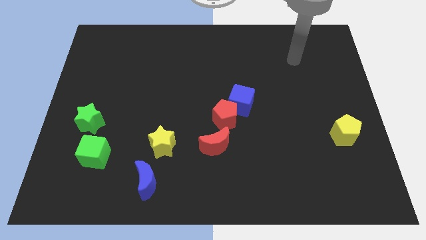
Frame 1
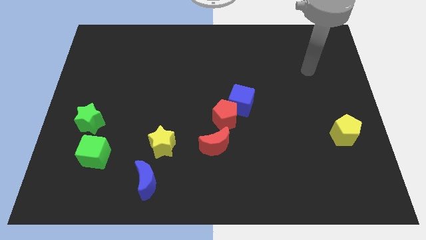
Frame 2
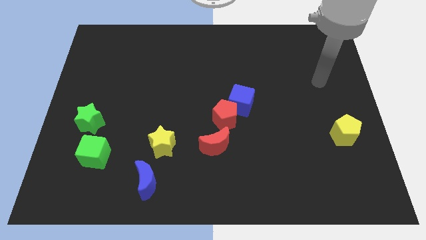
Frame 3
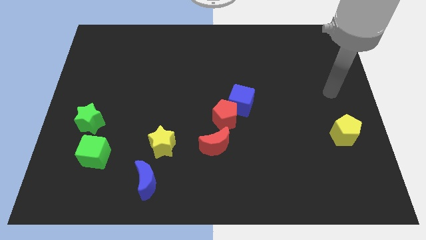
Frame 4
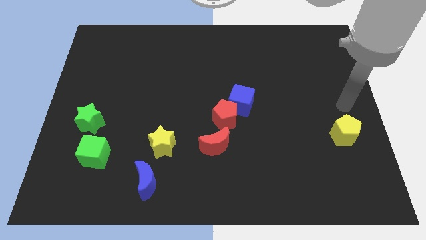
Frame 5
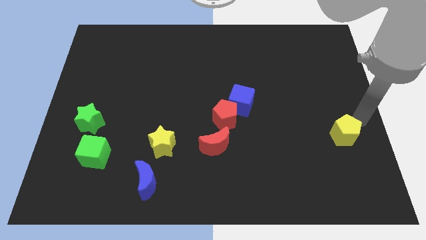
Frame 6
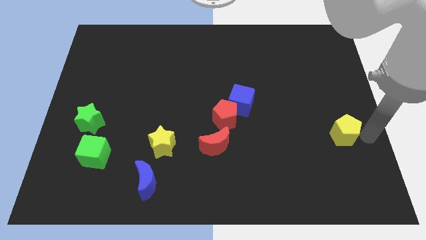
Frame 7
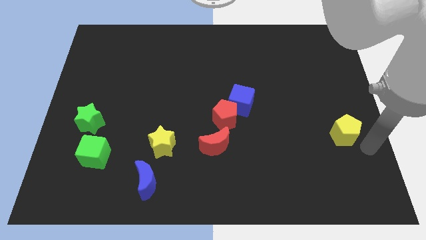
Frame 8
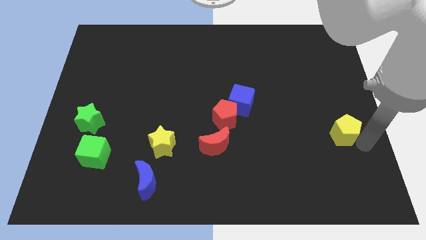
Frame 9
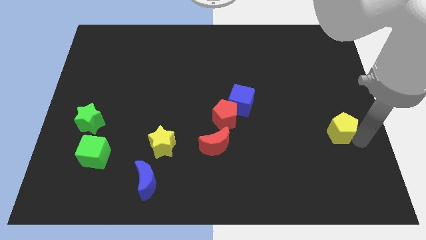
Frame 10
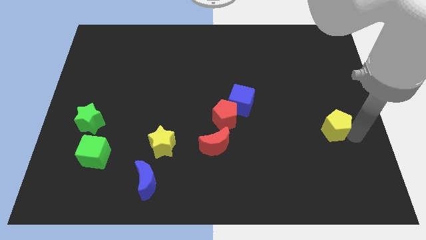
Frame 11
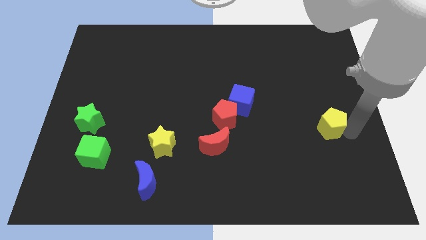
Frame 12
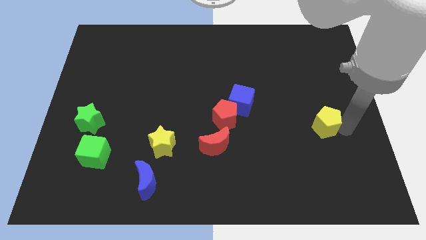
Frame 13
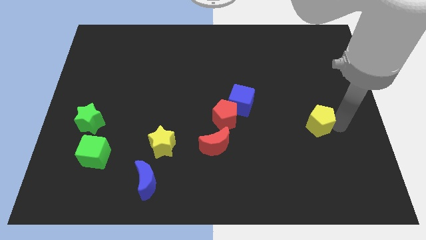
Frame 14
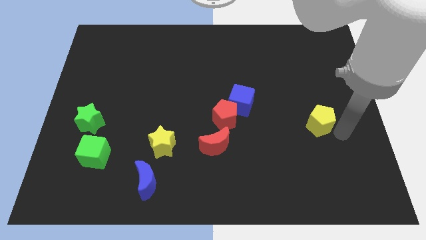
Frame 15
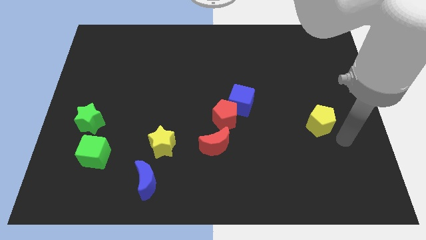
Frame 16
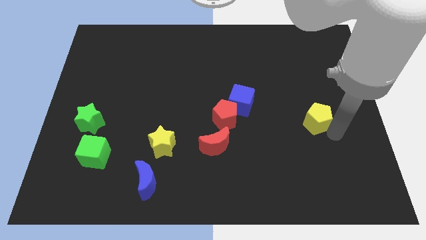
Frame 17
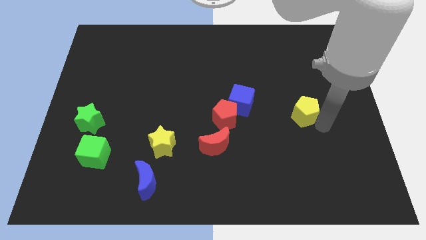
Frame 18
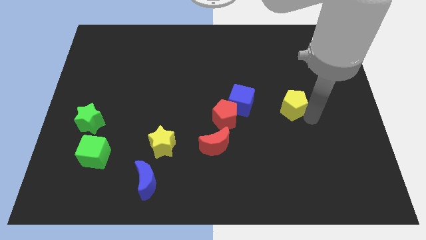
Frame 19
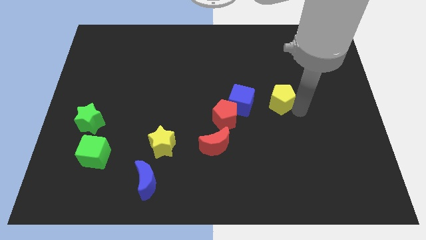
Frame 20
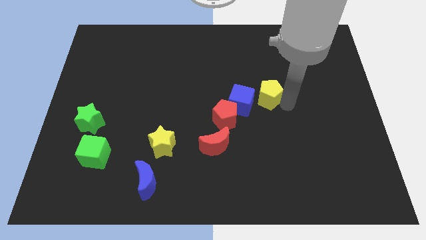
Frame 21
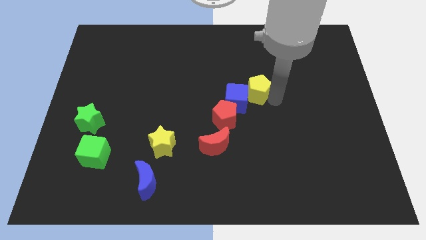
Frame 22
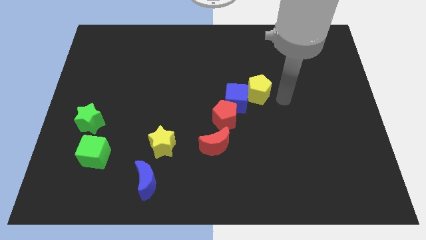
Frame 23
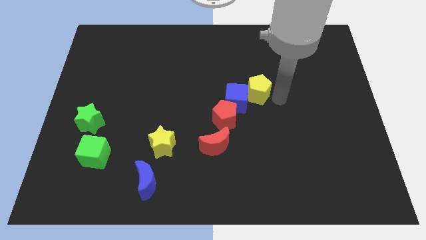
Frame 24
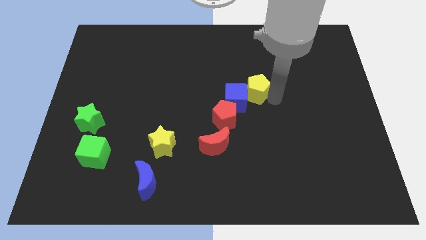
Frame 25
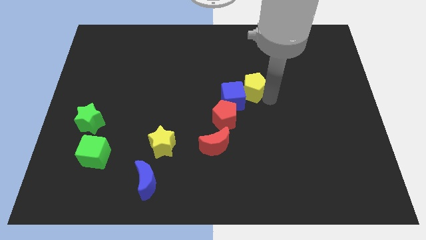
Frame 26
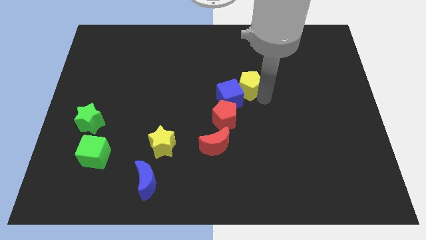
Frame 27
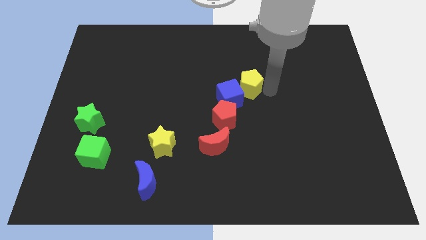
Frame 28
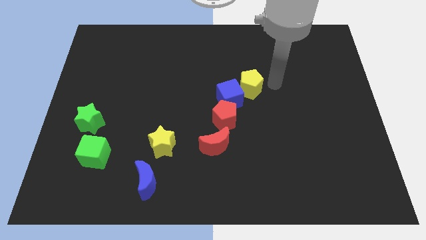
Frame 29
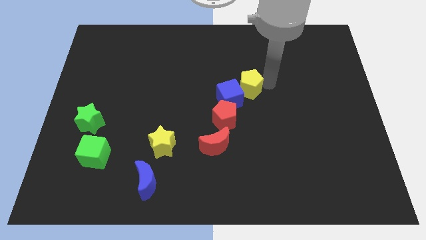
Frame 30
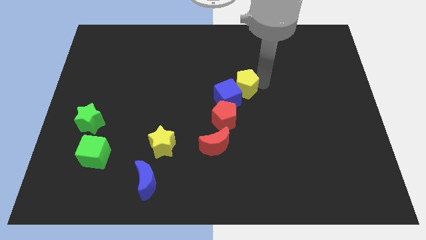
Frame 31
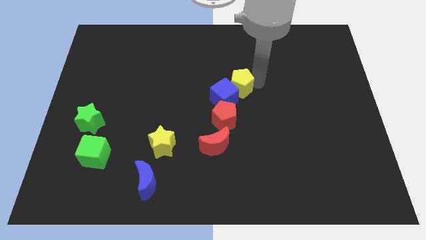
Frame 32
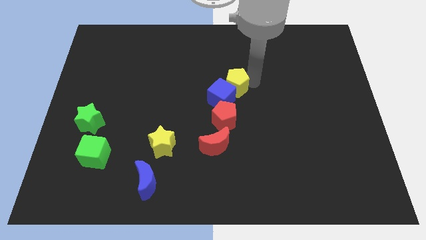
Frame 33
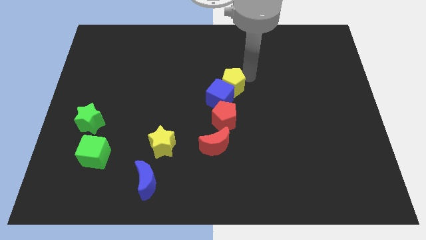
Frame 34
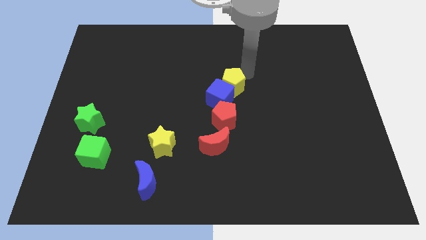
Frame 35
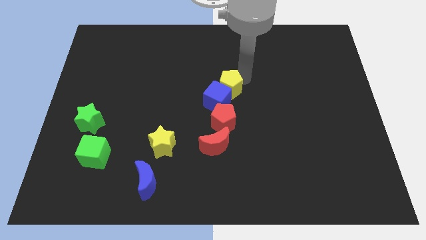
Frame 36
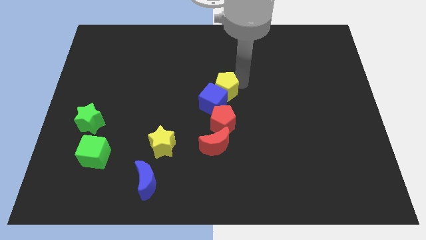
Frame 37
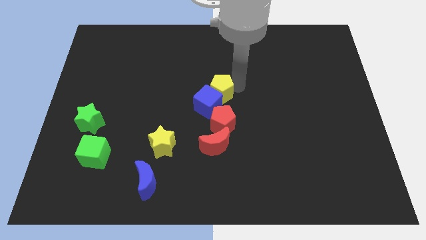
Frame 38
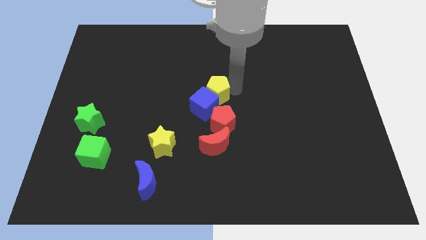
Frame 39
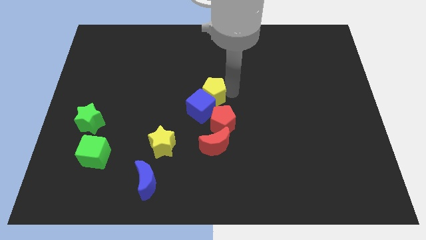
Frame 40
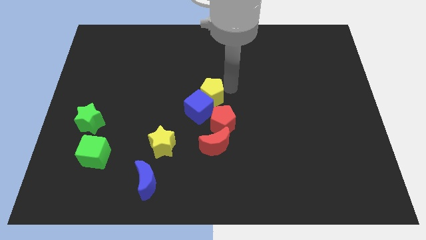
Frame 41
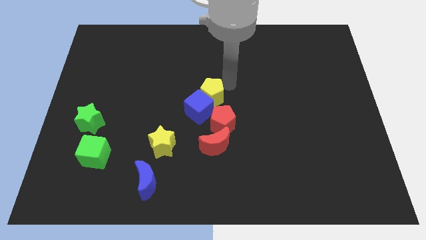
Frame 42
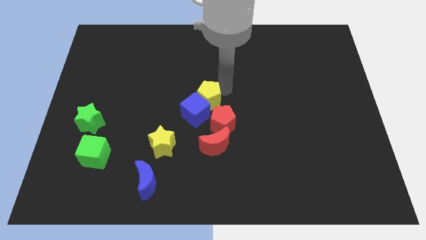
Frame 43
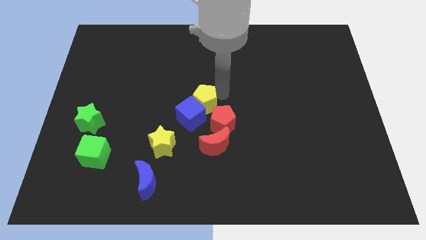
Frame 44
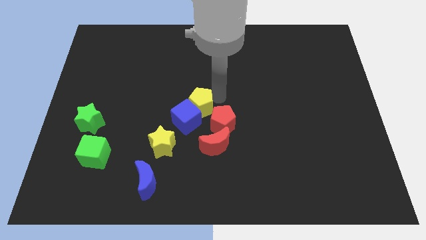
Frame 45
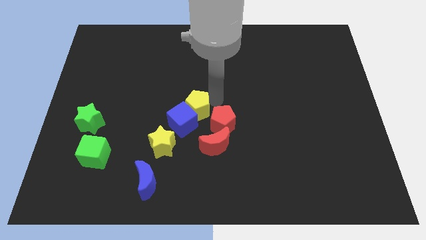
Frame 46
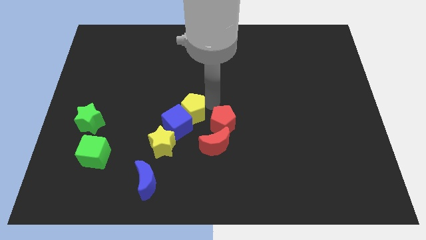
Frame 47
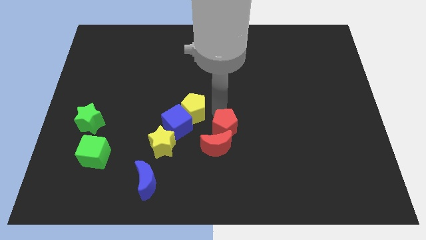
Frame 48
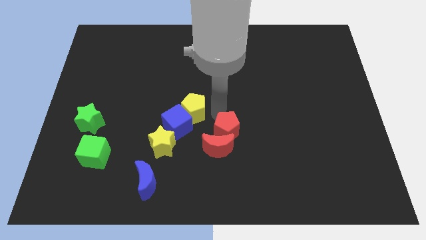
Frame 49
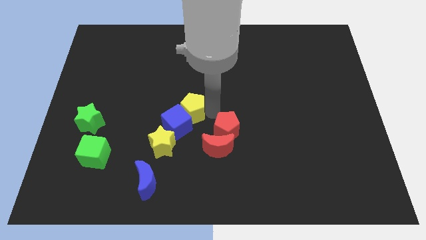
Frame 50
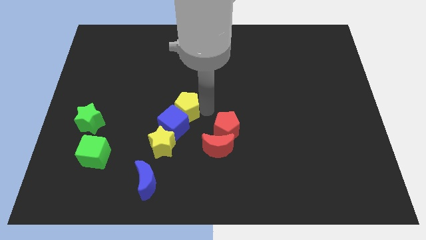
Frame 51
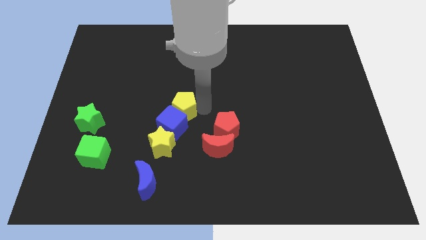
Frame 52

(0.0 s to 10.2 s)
slide the yellow pentagon to the top of the yellow star

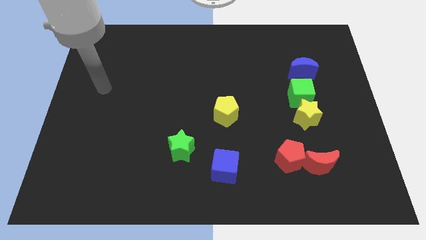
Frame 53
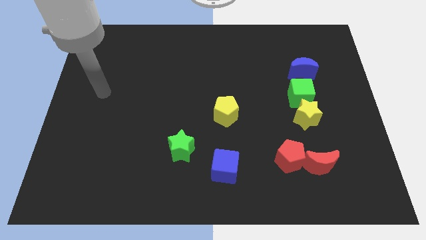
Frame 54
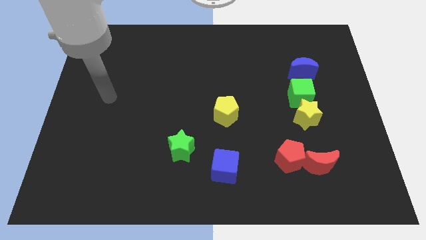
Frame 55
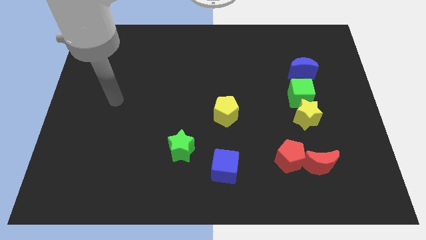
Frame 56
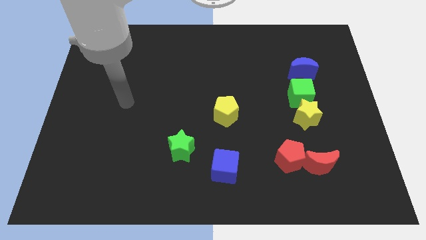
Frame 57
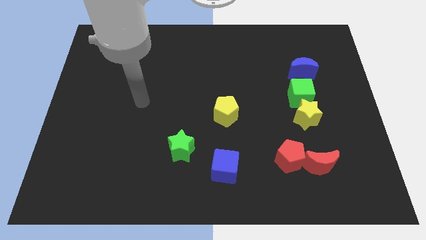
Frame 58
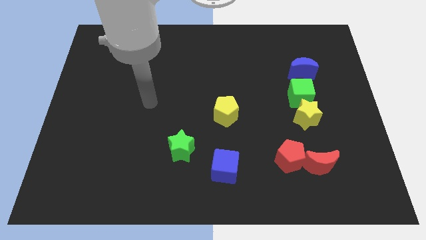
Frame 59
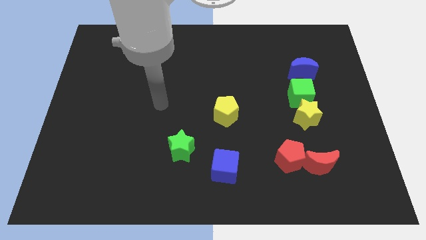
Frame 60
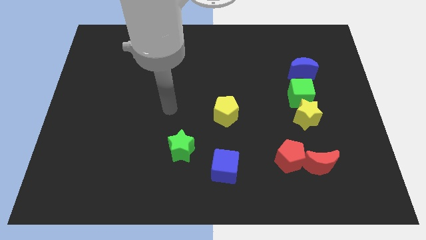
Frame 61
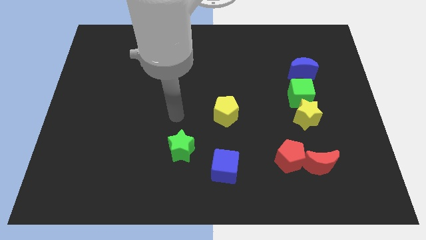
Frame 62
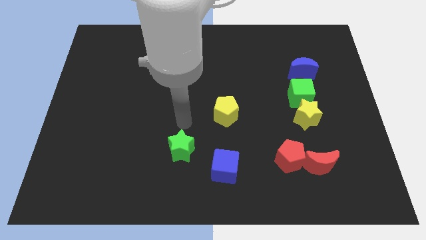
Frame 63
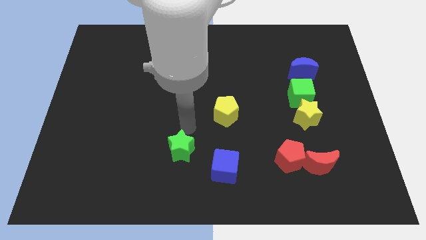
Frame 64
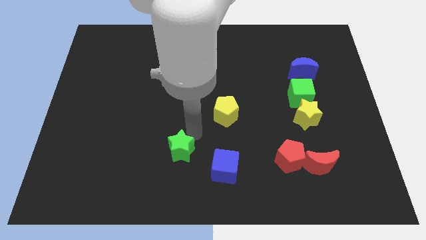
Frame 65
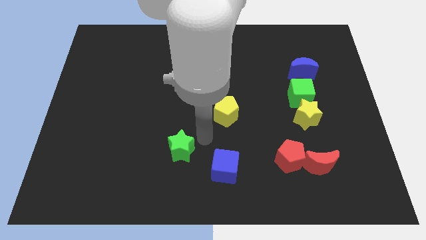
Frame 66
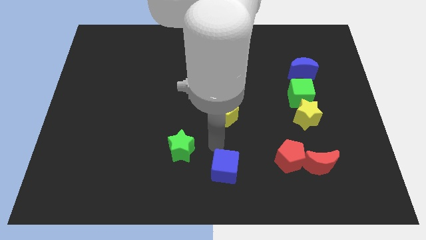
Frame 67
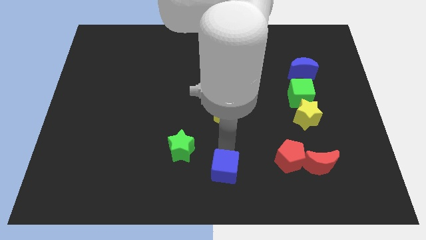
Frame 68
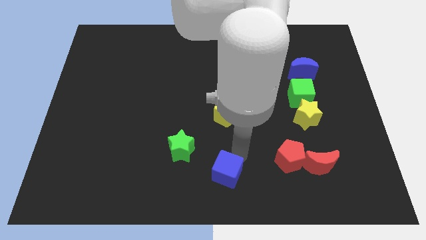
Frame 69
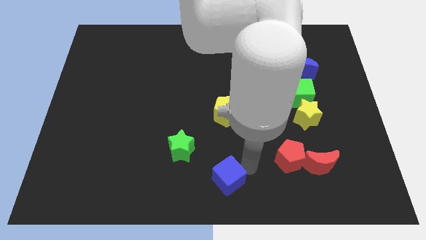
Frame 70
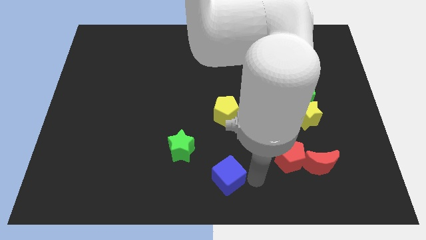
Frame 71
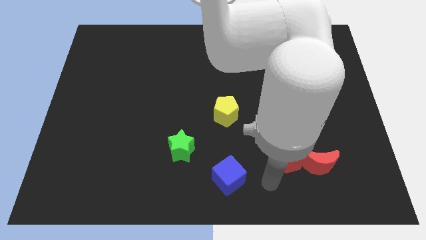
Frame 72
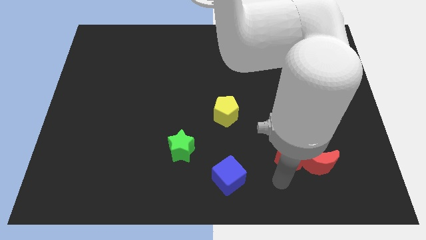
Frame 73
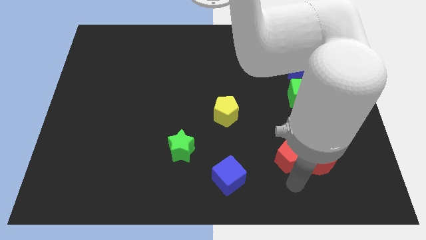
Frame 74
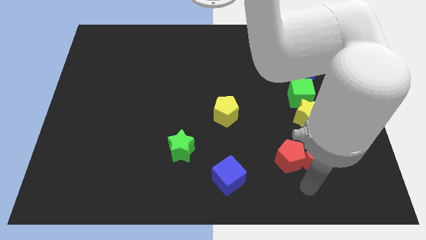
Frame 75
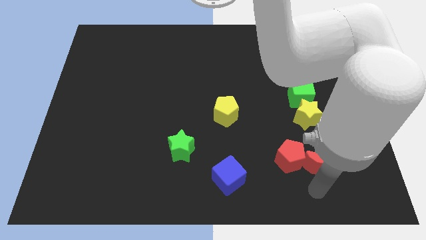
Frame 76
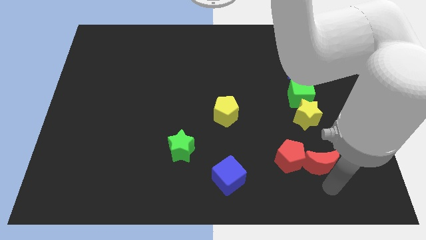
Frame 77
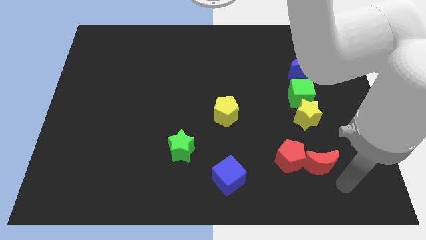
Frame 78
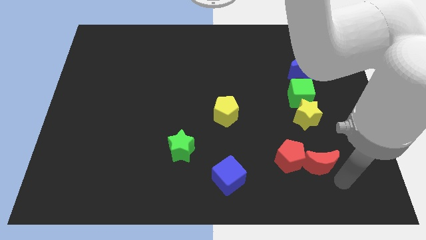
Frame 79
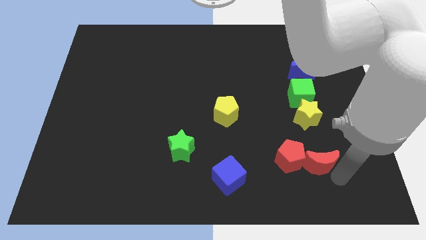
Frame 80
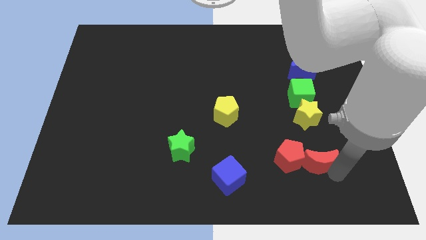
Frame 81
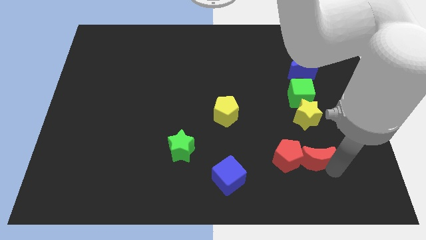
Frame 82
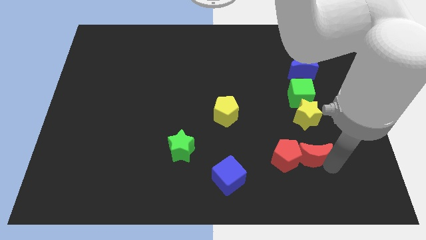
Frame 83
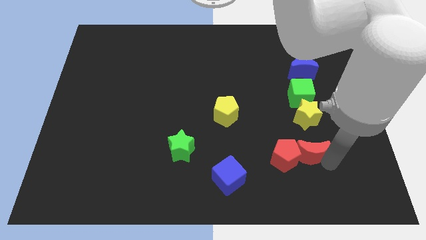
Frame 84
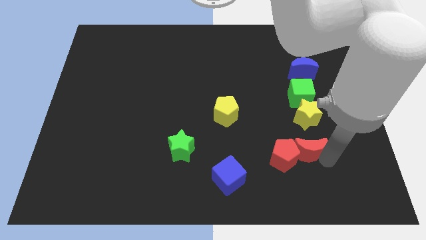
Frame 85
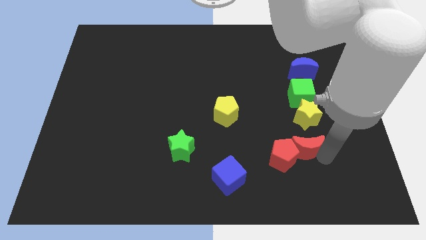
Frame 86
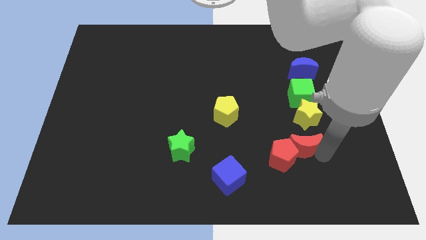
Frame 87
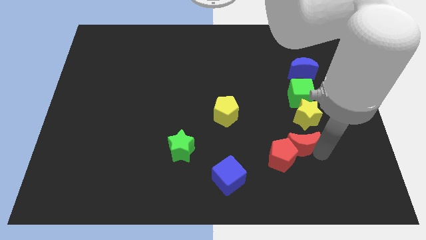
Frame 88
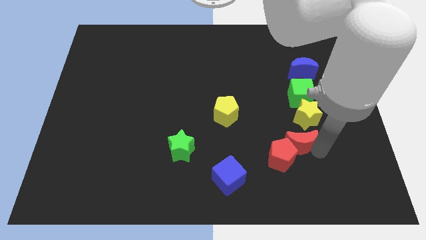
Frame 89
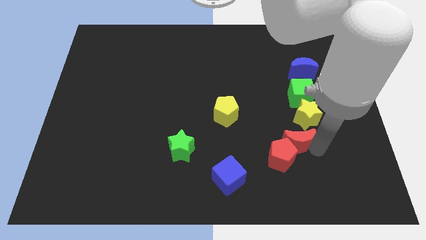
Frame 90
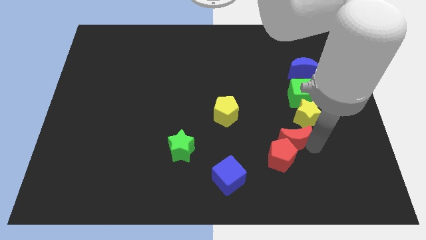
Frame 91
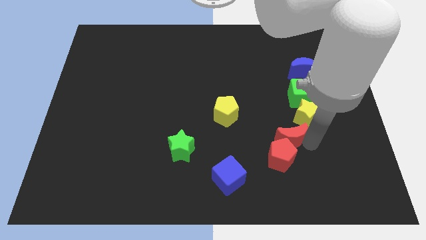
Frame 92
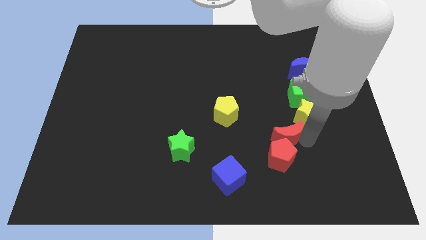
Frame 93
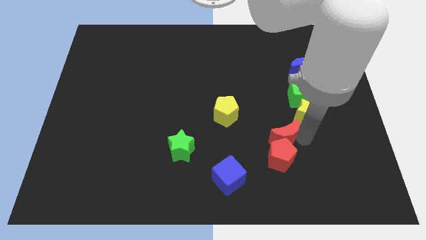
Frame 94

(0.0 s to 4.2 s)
move the red moon diagonally up and to the left of the red pentagon
